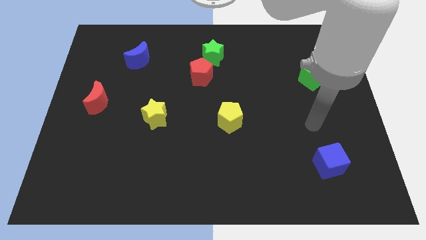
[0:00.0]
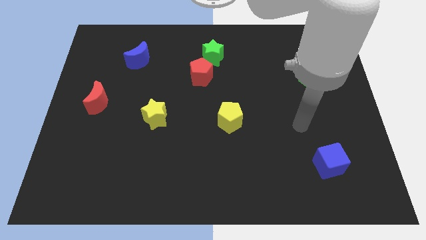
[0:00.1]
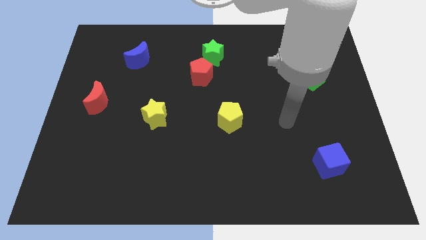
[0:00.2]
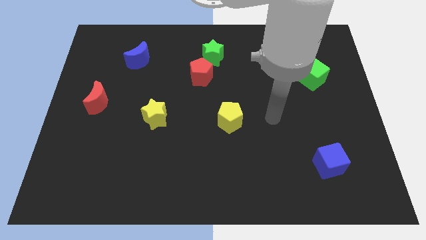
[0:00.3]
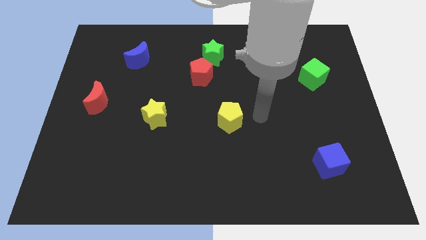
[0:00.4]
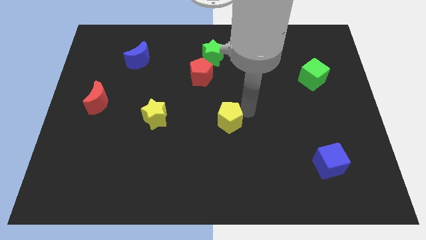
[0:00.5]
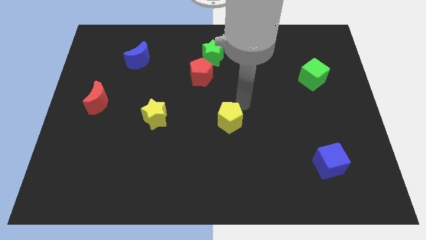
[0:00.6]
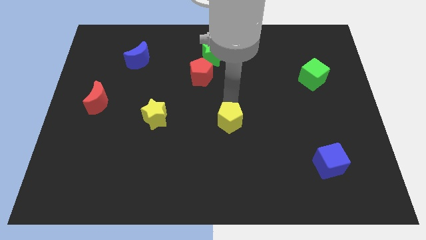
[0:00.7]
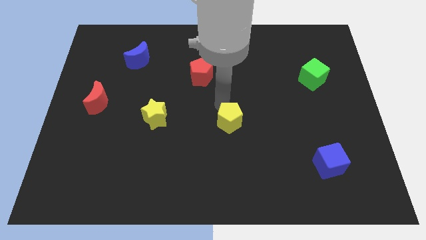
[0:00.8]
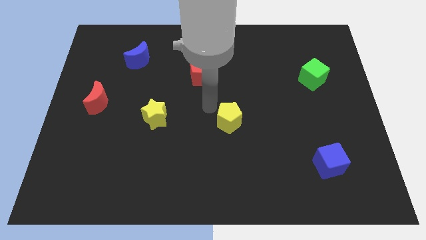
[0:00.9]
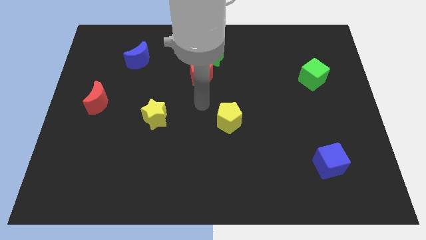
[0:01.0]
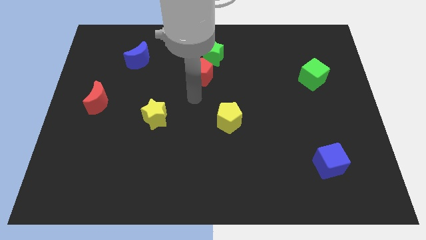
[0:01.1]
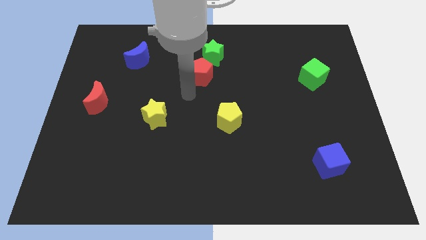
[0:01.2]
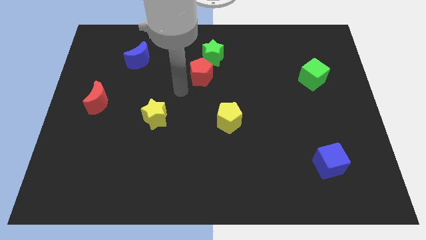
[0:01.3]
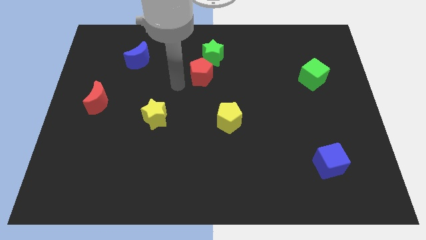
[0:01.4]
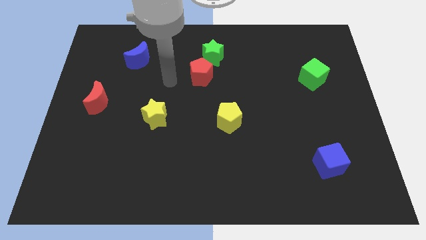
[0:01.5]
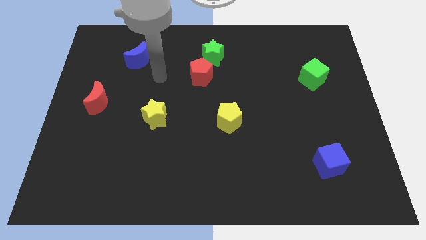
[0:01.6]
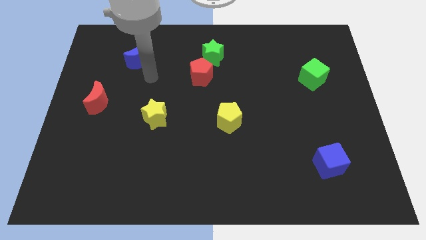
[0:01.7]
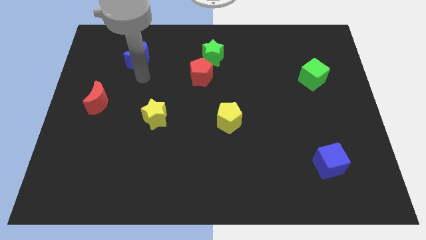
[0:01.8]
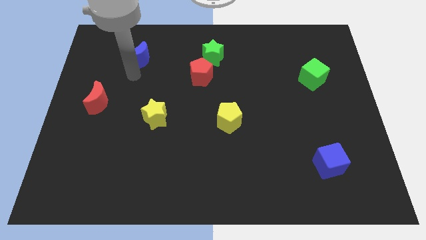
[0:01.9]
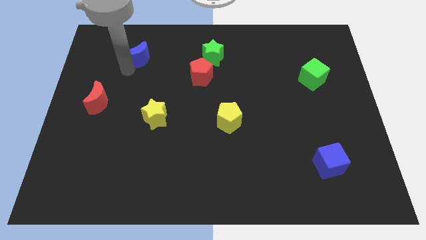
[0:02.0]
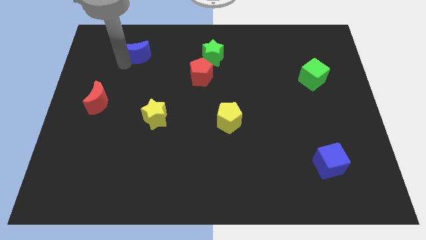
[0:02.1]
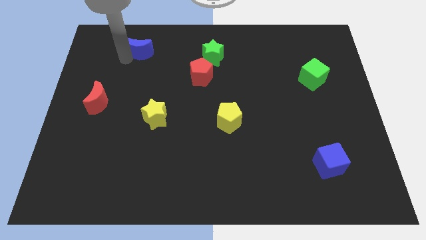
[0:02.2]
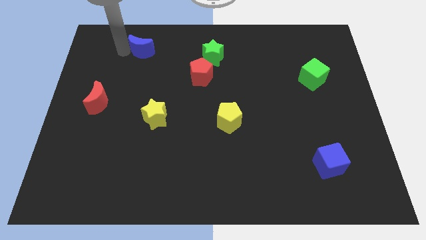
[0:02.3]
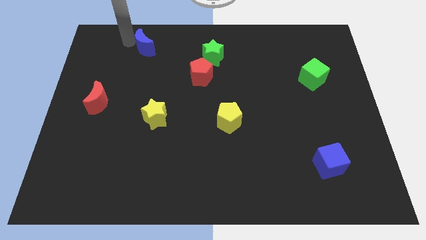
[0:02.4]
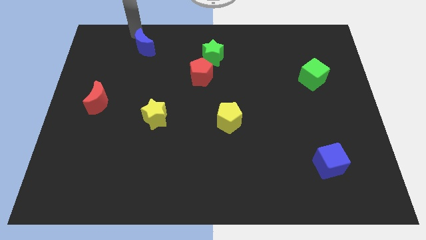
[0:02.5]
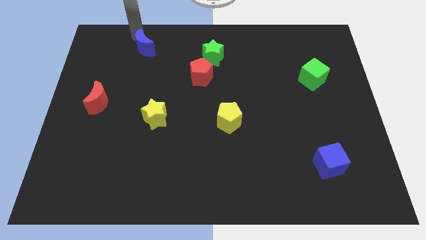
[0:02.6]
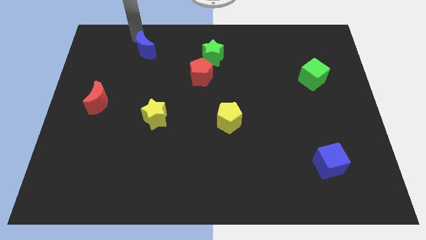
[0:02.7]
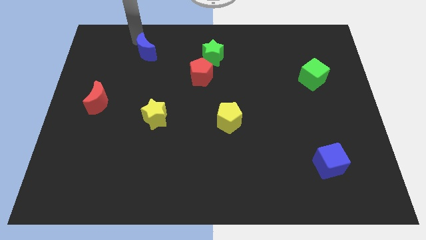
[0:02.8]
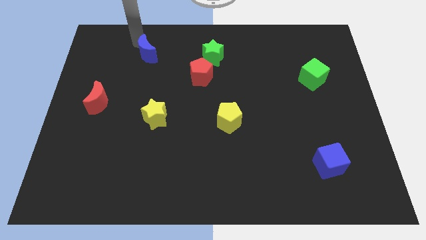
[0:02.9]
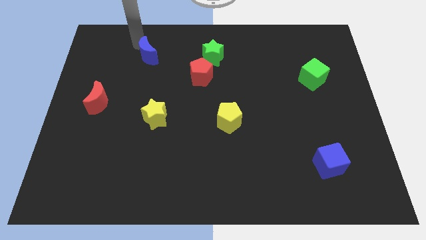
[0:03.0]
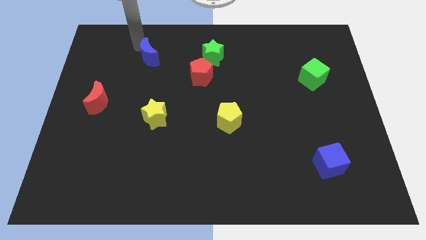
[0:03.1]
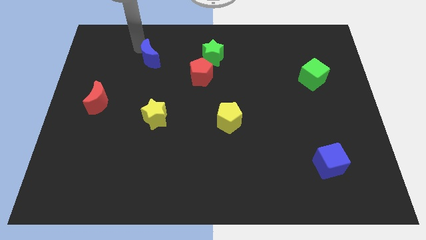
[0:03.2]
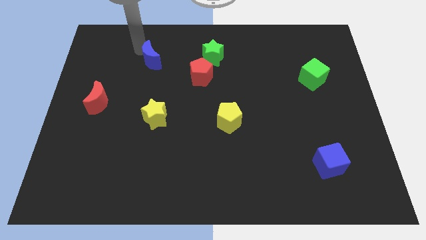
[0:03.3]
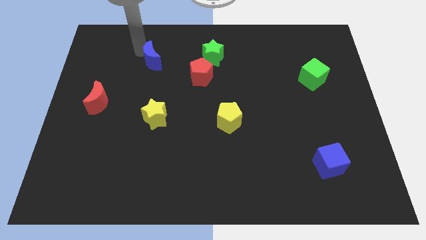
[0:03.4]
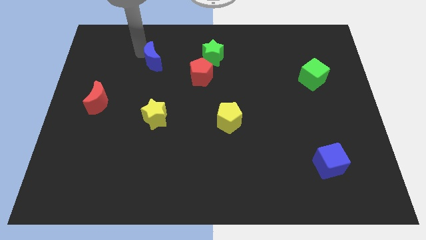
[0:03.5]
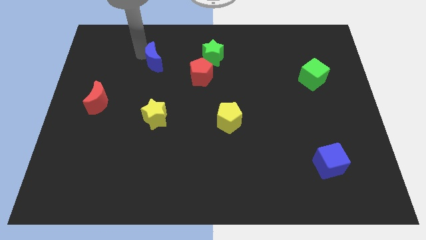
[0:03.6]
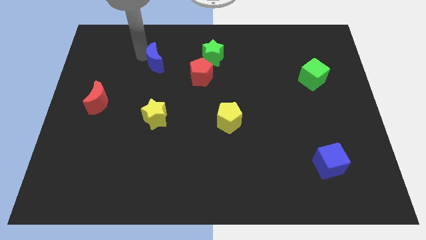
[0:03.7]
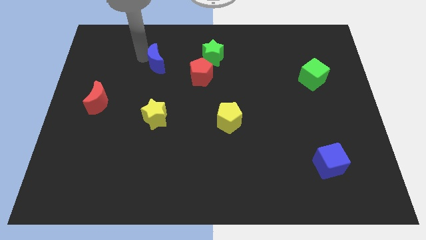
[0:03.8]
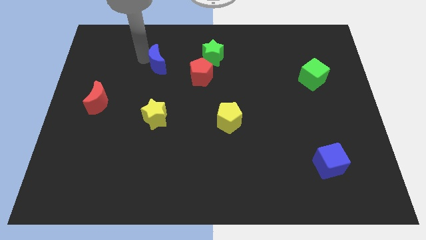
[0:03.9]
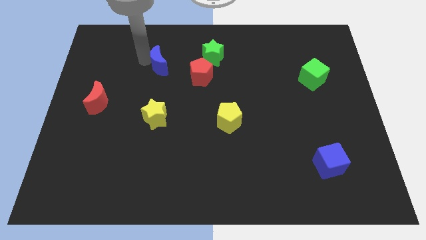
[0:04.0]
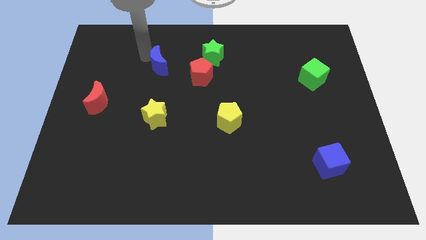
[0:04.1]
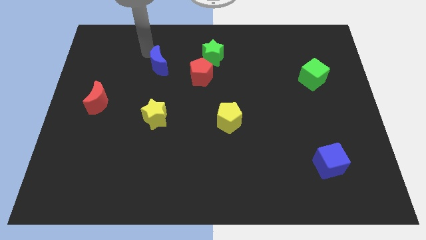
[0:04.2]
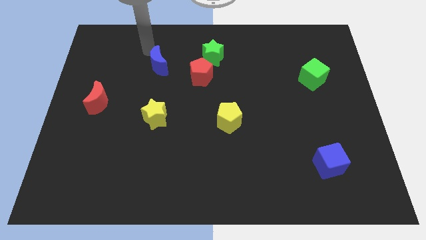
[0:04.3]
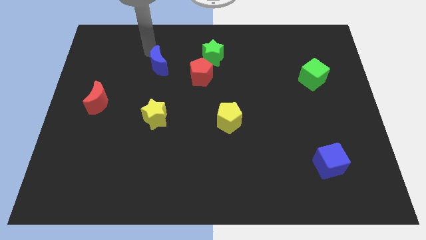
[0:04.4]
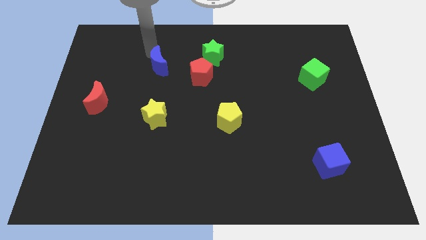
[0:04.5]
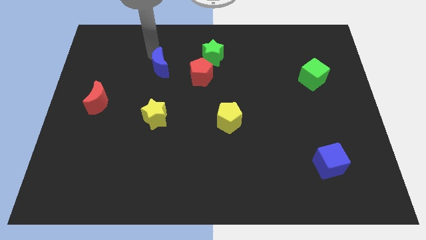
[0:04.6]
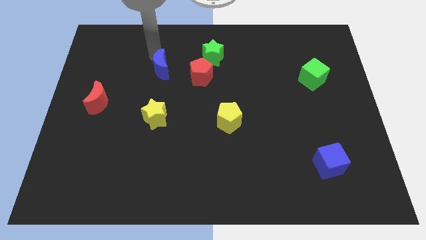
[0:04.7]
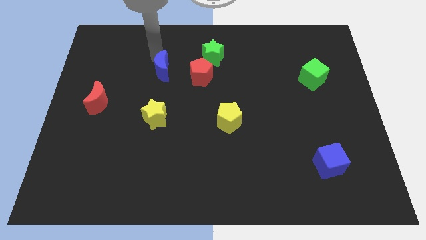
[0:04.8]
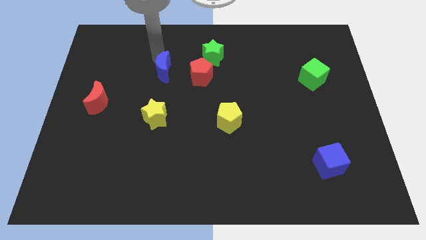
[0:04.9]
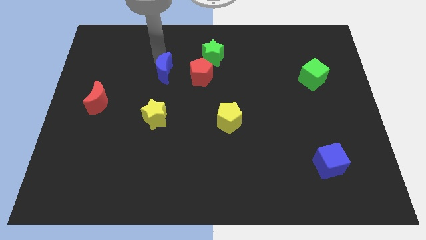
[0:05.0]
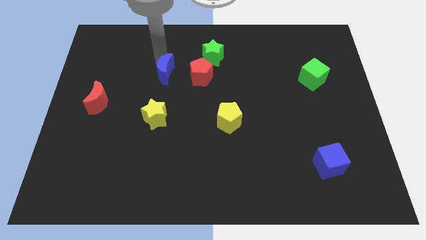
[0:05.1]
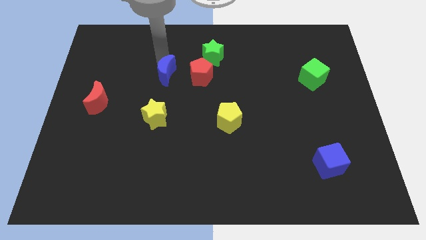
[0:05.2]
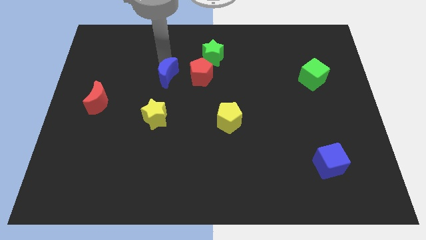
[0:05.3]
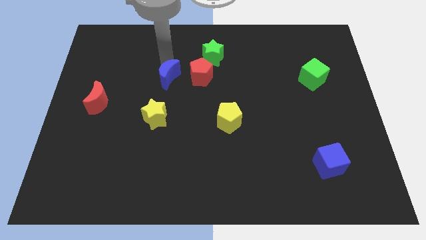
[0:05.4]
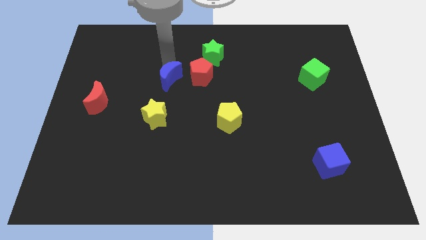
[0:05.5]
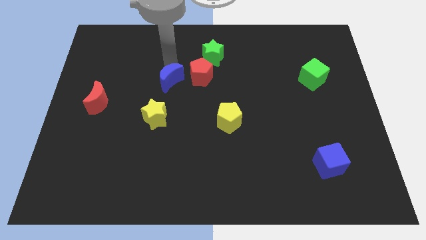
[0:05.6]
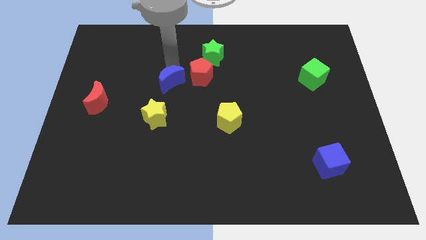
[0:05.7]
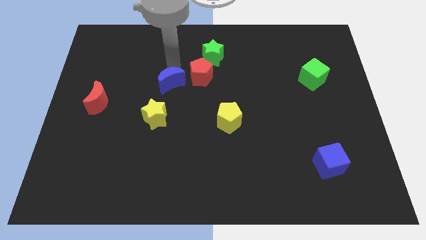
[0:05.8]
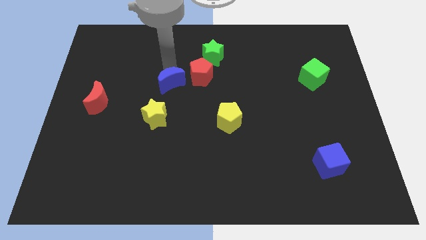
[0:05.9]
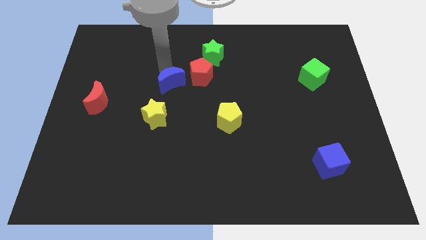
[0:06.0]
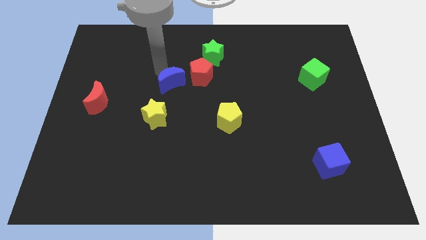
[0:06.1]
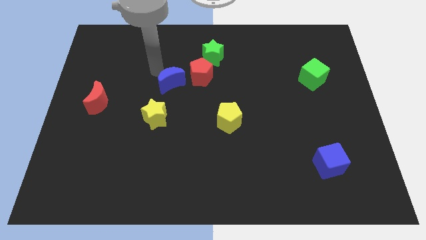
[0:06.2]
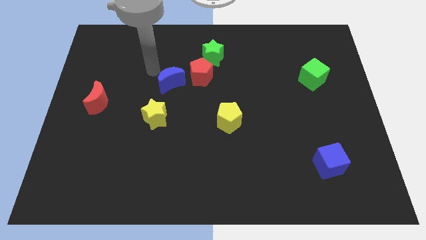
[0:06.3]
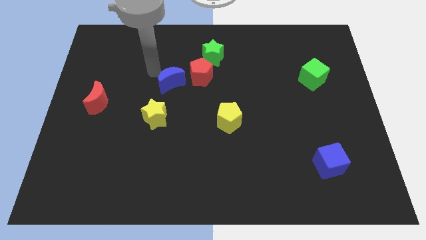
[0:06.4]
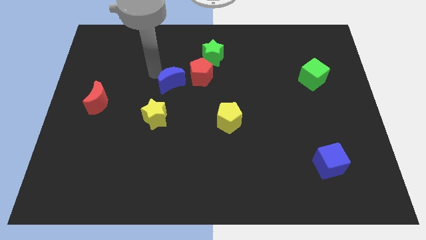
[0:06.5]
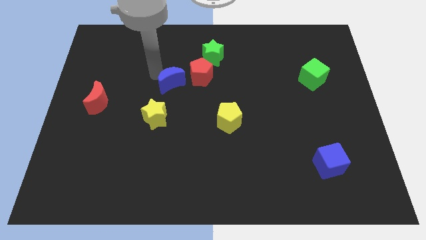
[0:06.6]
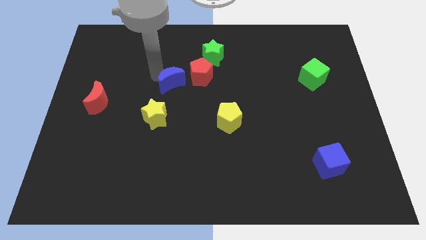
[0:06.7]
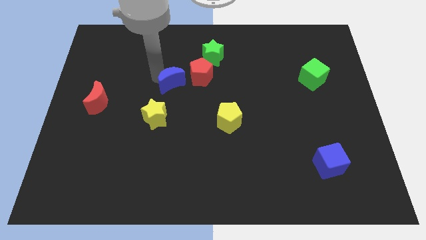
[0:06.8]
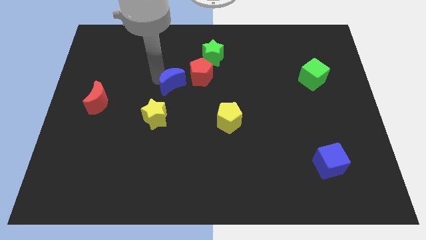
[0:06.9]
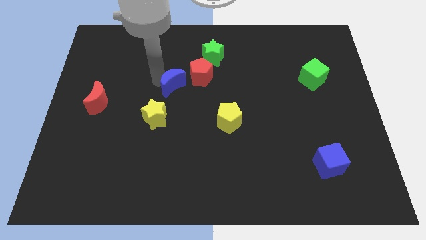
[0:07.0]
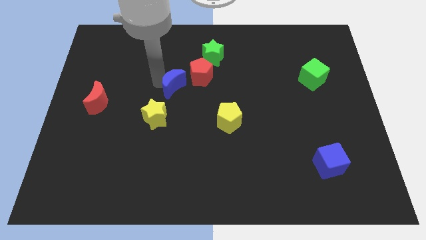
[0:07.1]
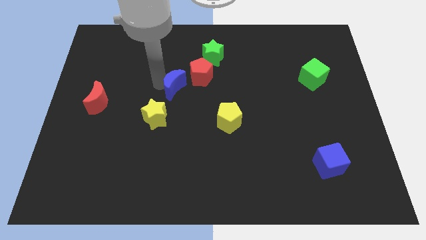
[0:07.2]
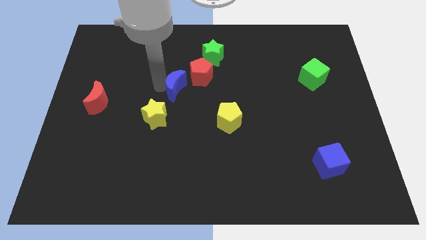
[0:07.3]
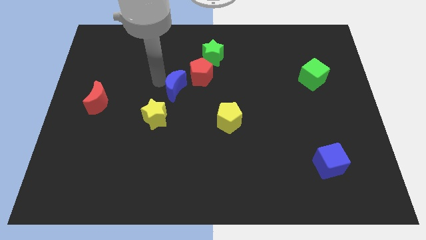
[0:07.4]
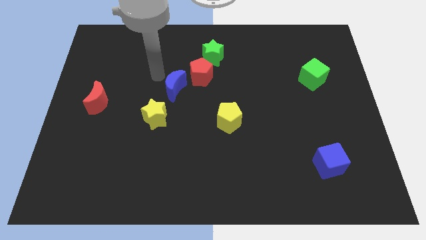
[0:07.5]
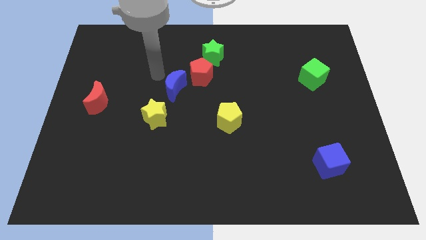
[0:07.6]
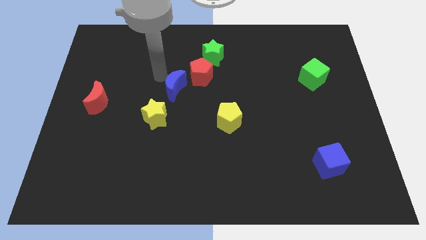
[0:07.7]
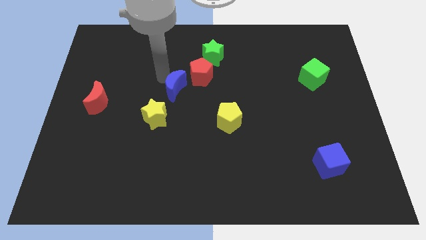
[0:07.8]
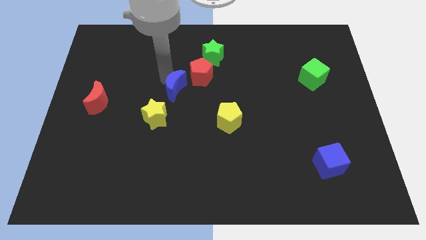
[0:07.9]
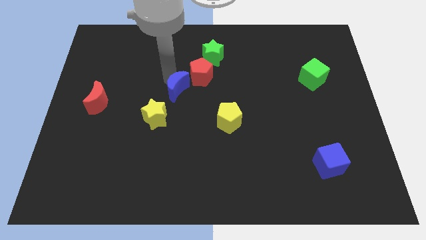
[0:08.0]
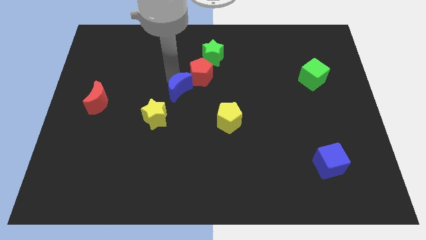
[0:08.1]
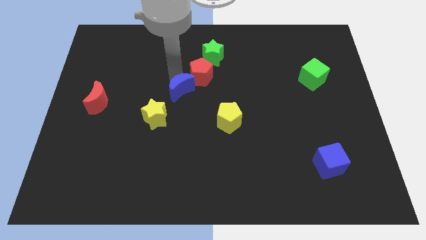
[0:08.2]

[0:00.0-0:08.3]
push the blue moon below the red pentagon
